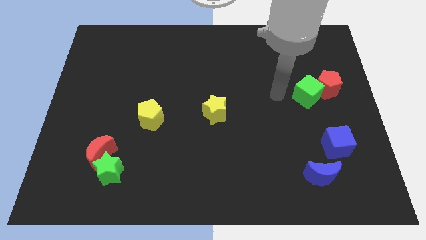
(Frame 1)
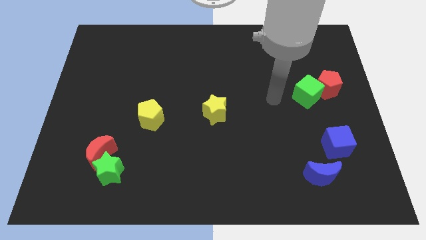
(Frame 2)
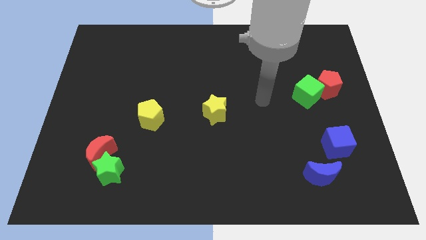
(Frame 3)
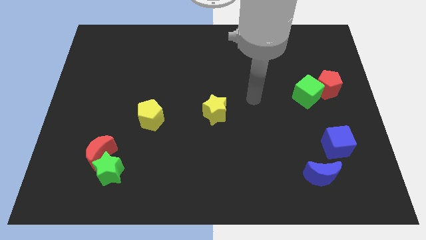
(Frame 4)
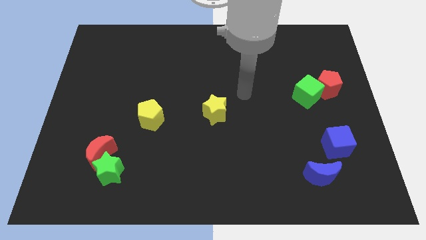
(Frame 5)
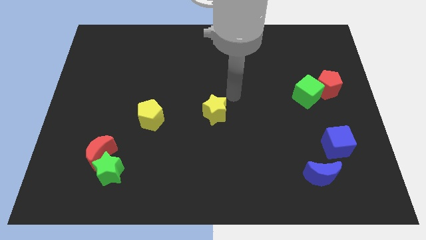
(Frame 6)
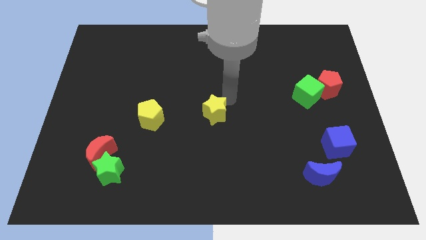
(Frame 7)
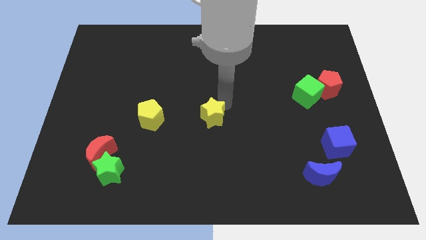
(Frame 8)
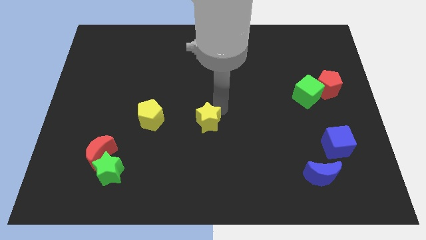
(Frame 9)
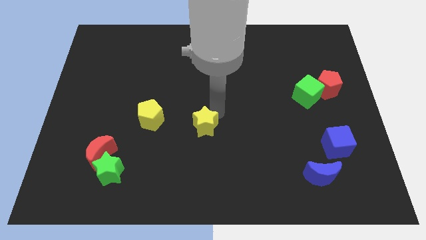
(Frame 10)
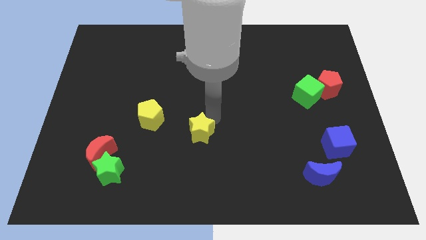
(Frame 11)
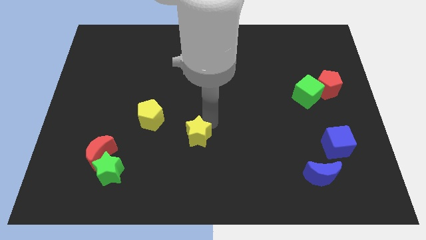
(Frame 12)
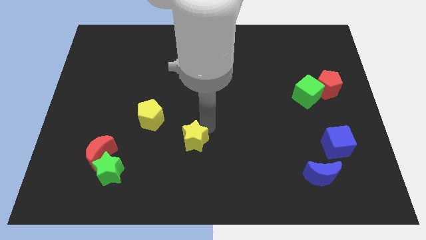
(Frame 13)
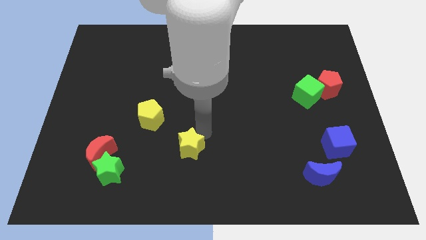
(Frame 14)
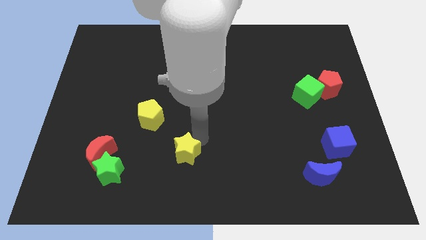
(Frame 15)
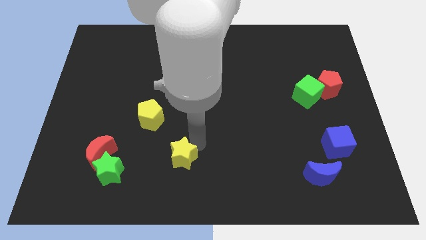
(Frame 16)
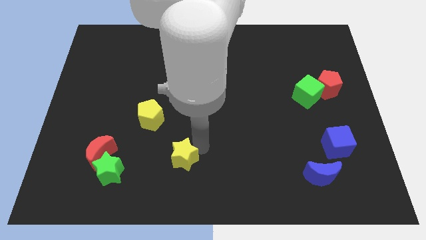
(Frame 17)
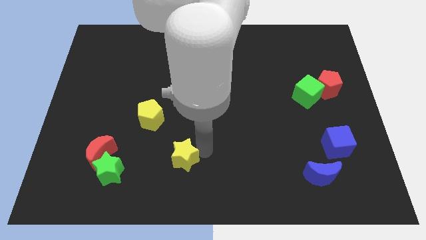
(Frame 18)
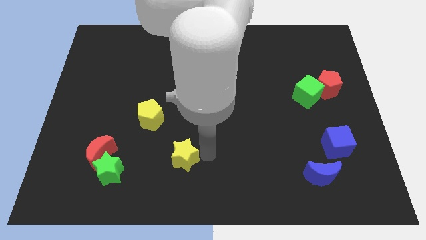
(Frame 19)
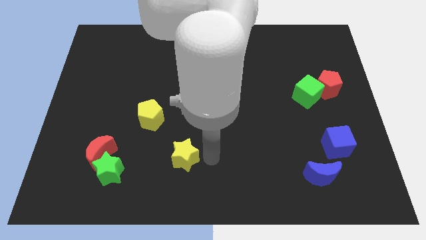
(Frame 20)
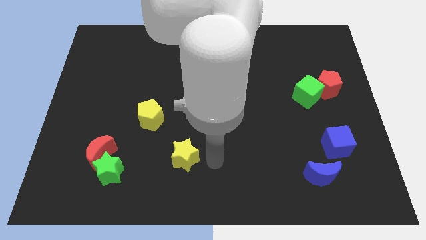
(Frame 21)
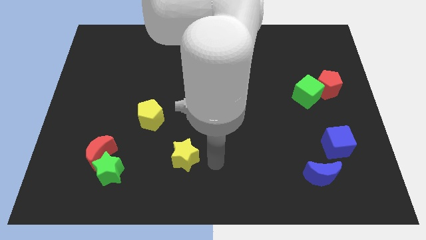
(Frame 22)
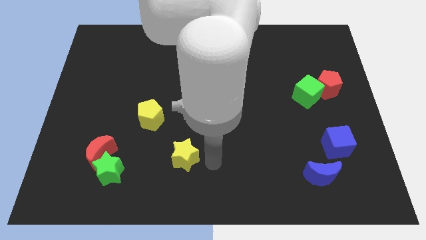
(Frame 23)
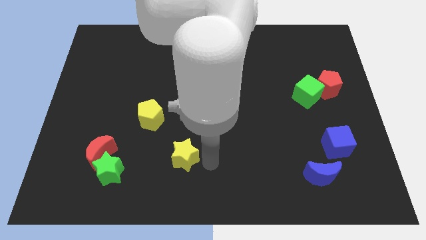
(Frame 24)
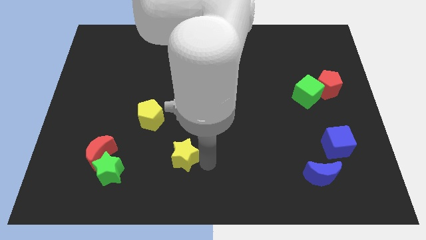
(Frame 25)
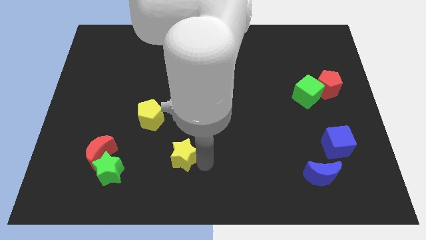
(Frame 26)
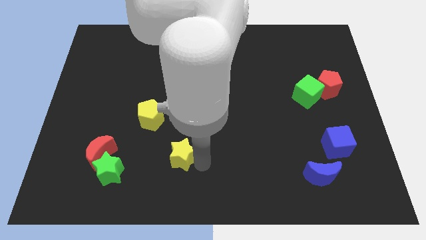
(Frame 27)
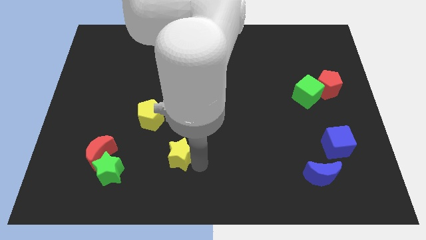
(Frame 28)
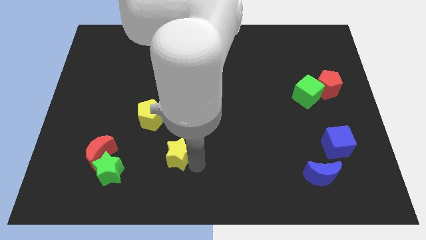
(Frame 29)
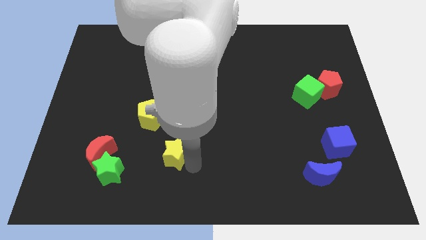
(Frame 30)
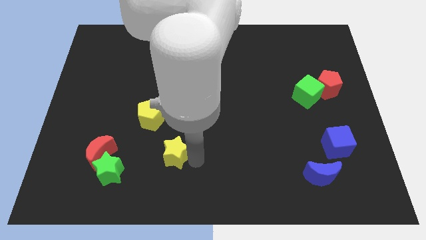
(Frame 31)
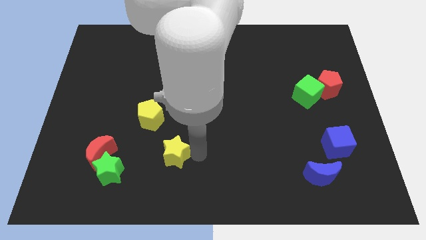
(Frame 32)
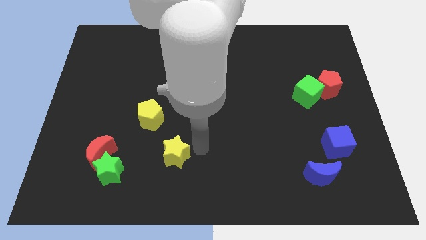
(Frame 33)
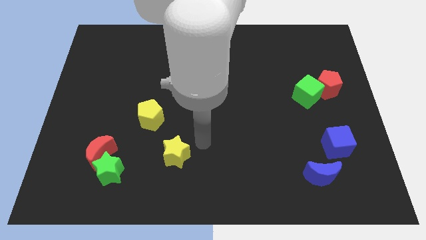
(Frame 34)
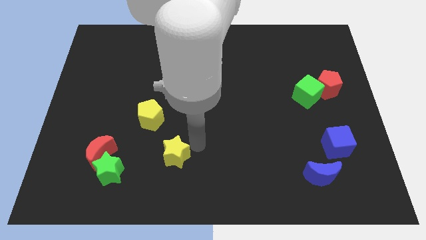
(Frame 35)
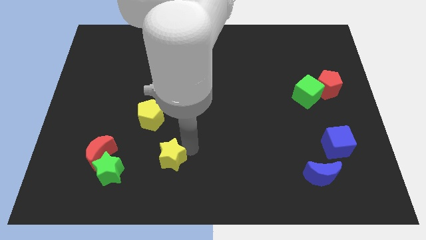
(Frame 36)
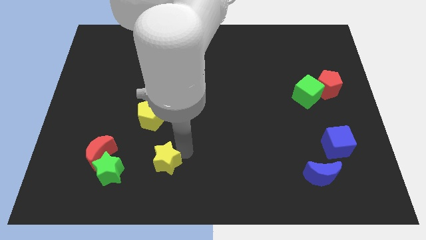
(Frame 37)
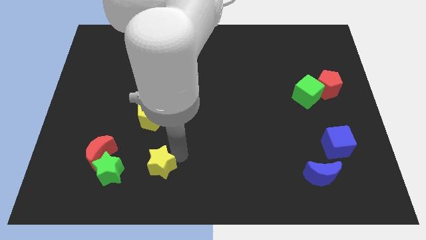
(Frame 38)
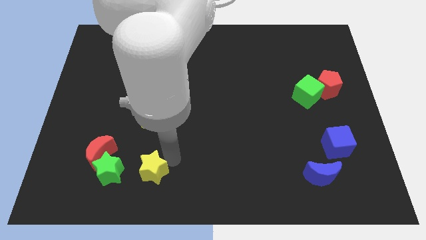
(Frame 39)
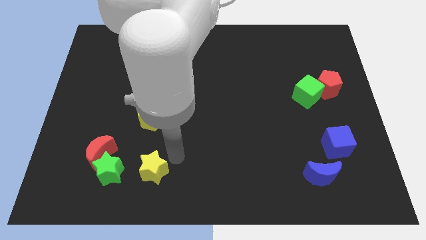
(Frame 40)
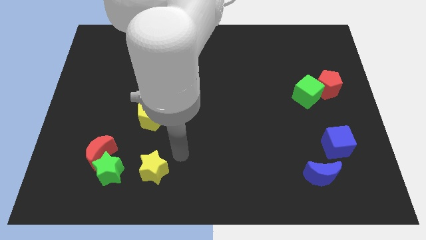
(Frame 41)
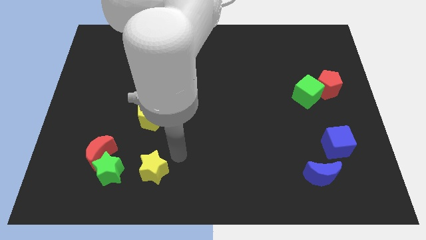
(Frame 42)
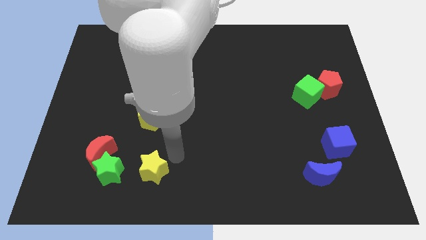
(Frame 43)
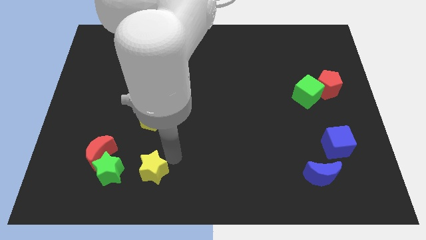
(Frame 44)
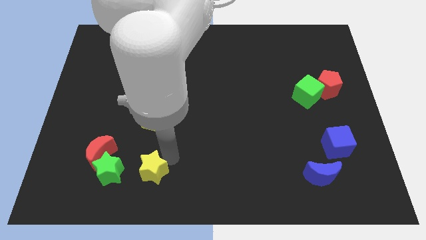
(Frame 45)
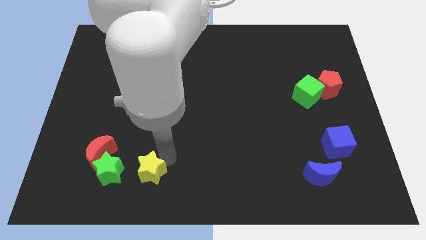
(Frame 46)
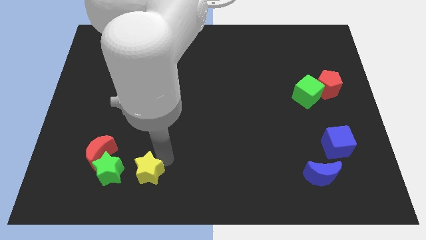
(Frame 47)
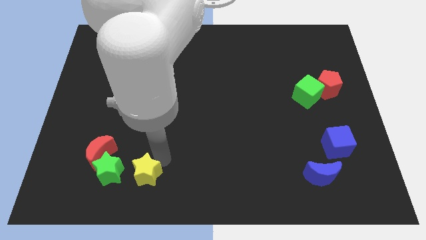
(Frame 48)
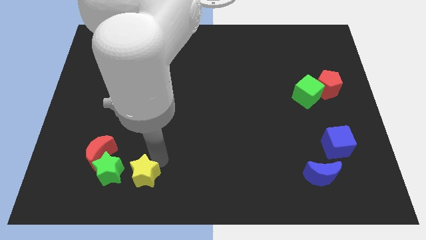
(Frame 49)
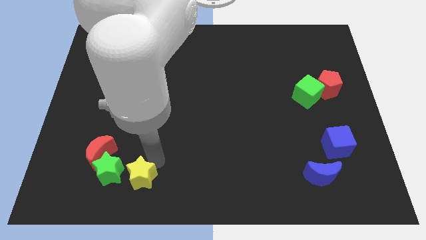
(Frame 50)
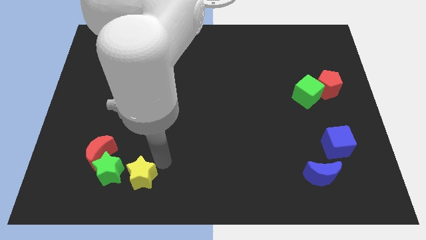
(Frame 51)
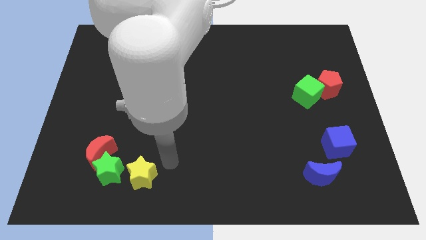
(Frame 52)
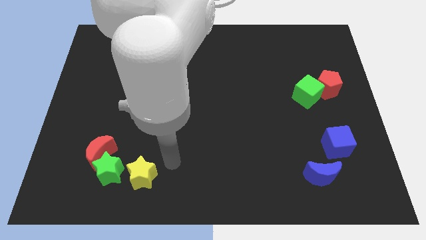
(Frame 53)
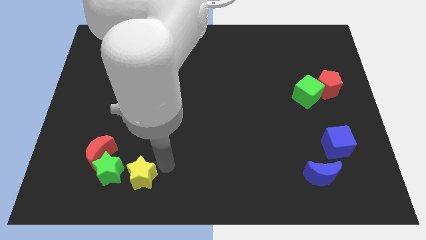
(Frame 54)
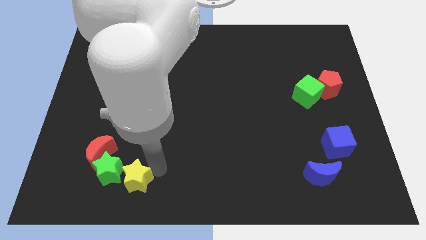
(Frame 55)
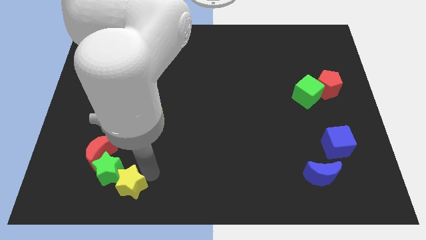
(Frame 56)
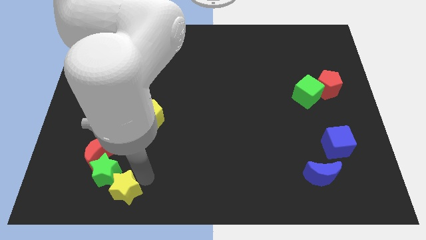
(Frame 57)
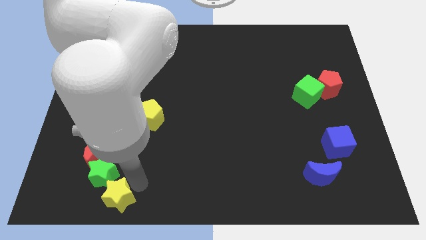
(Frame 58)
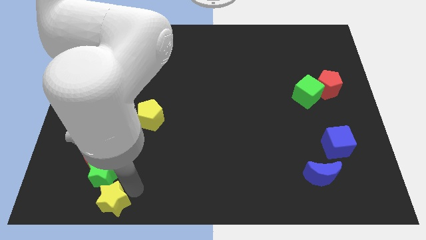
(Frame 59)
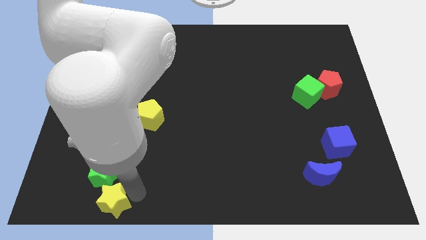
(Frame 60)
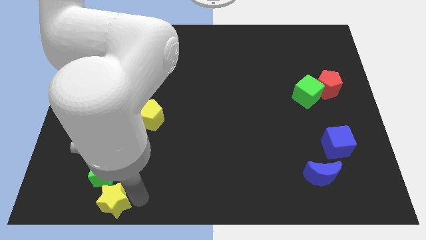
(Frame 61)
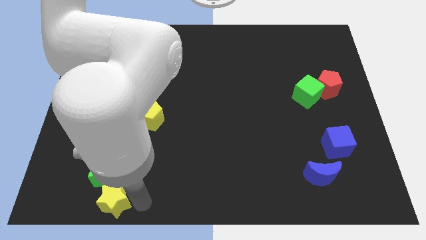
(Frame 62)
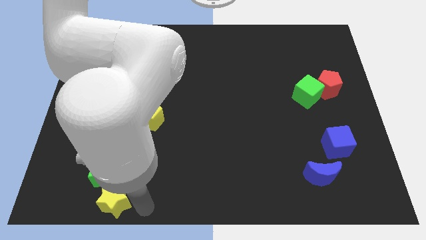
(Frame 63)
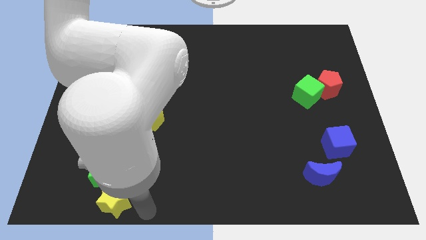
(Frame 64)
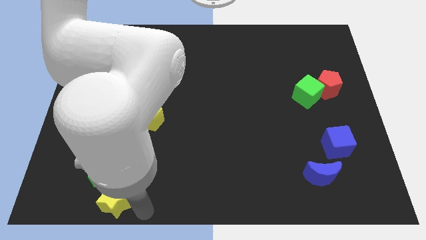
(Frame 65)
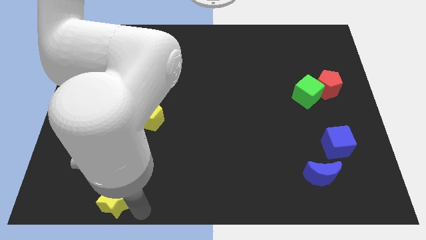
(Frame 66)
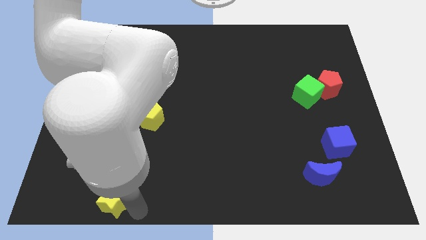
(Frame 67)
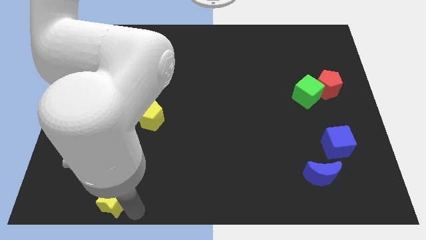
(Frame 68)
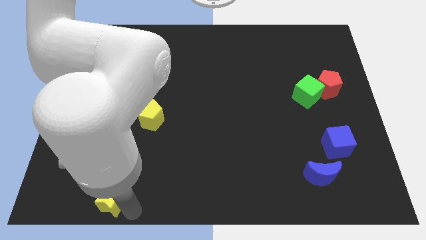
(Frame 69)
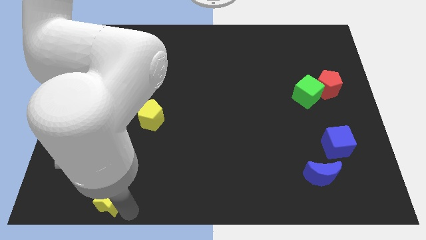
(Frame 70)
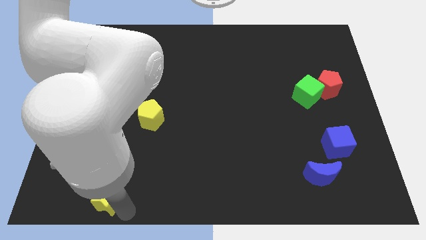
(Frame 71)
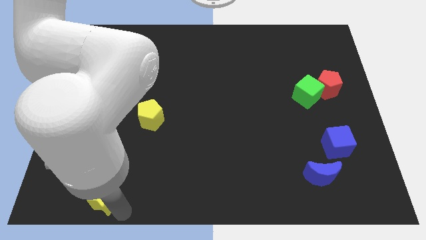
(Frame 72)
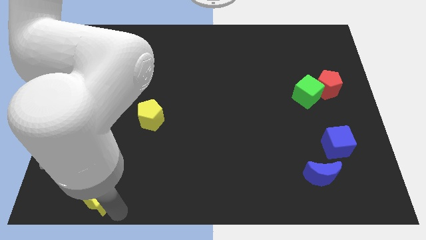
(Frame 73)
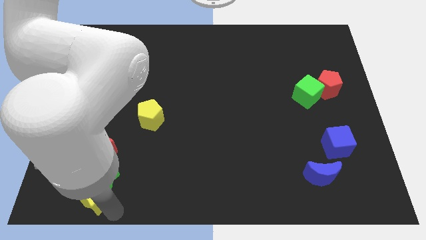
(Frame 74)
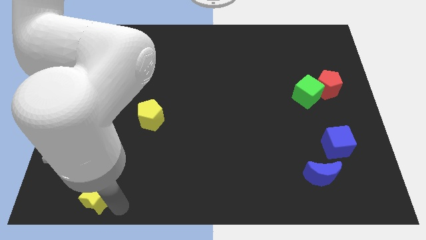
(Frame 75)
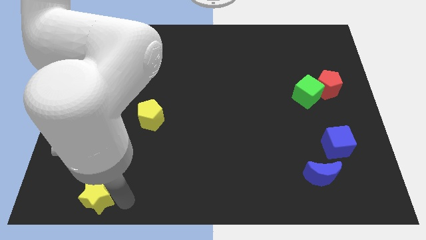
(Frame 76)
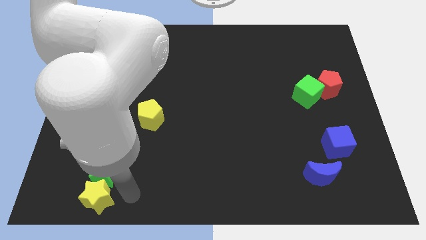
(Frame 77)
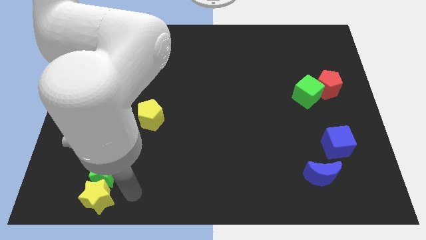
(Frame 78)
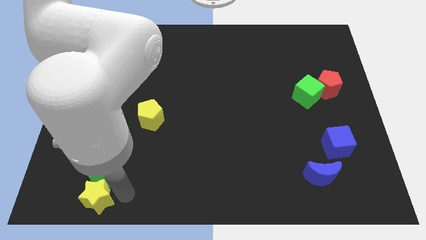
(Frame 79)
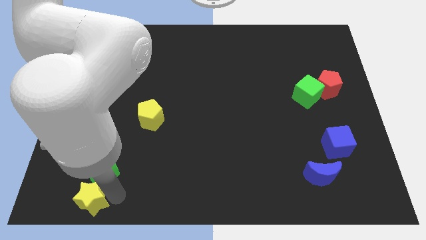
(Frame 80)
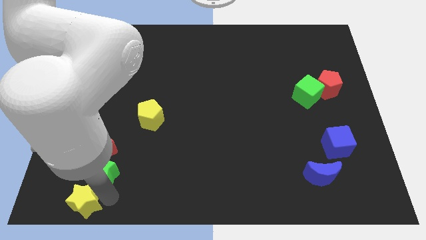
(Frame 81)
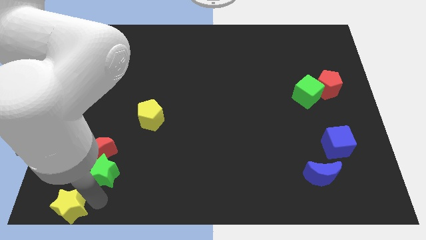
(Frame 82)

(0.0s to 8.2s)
push the yellow star to the lower left corner
